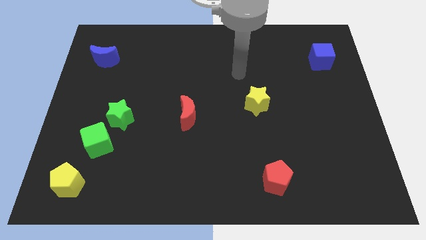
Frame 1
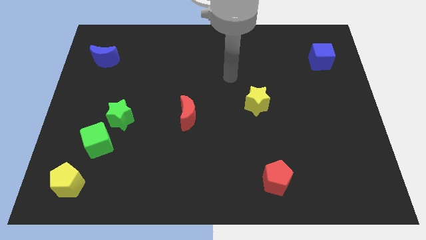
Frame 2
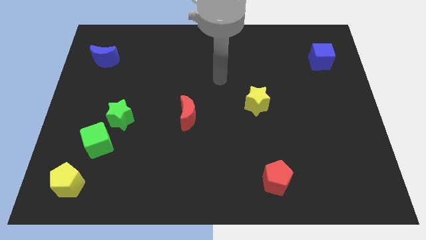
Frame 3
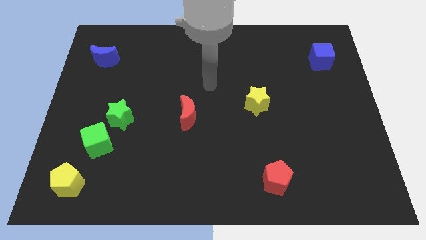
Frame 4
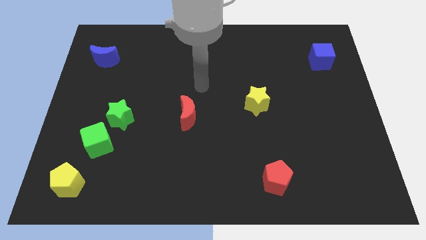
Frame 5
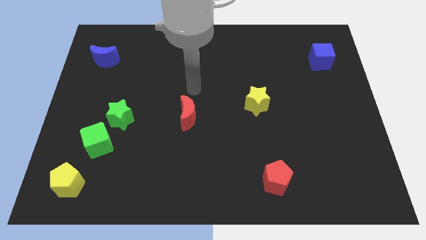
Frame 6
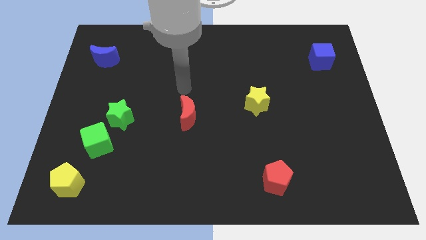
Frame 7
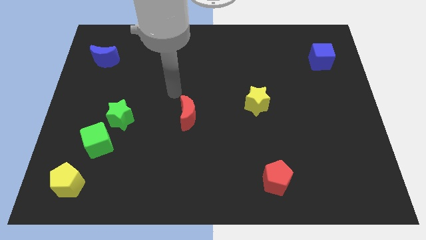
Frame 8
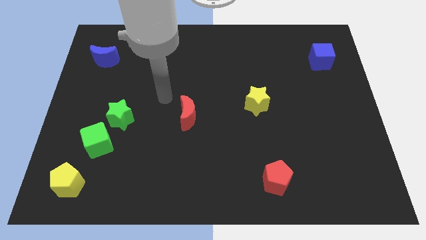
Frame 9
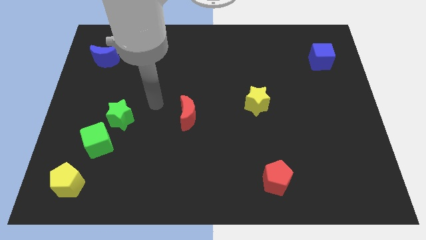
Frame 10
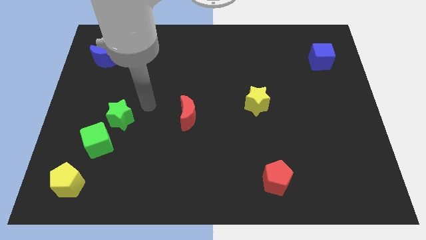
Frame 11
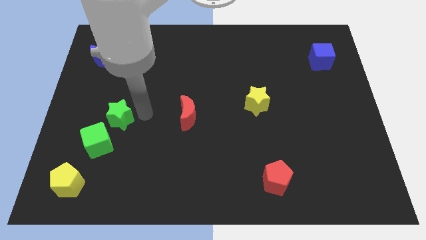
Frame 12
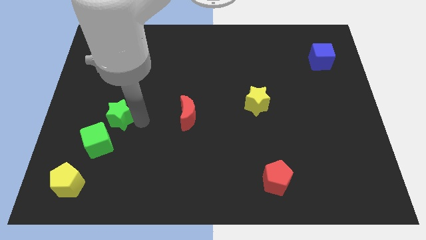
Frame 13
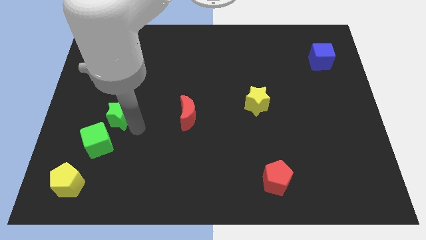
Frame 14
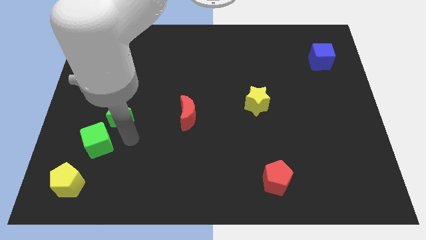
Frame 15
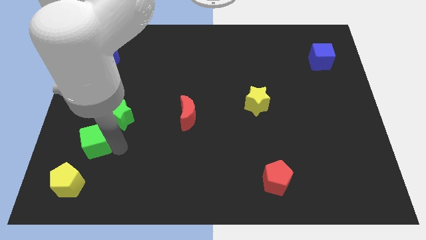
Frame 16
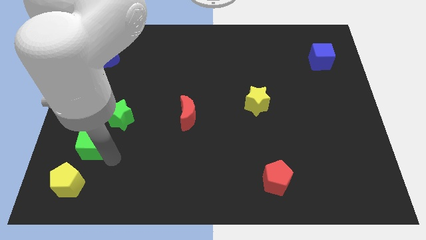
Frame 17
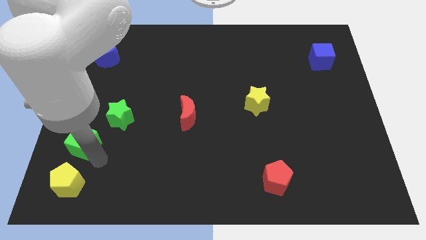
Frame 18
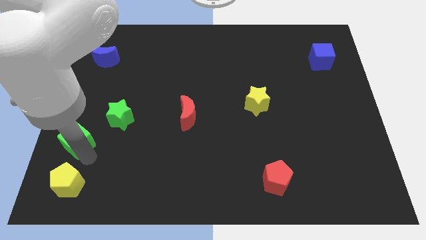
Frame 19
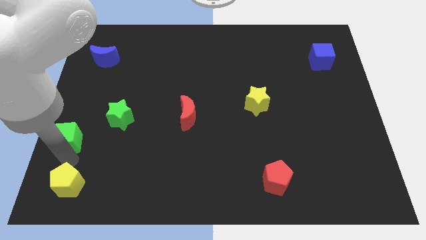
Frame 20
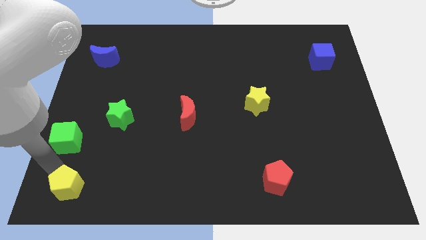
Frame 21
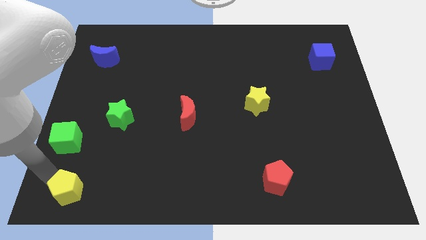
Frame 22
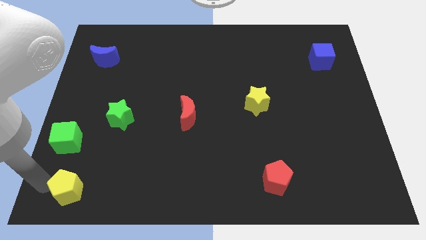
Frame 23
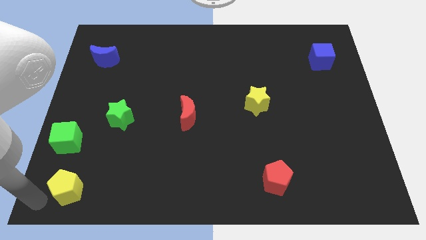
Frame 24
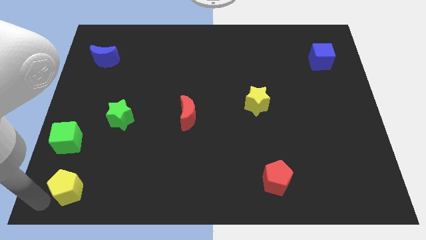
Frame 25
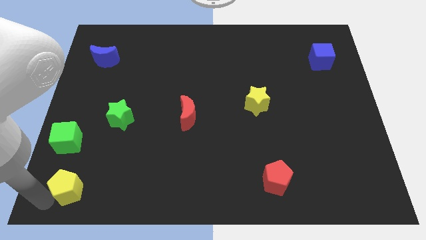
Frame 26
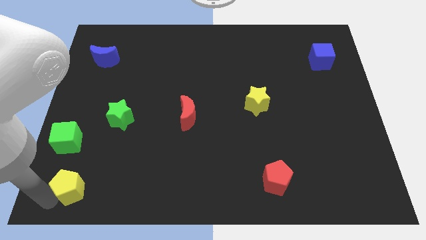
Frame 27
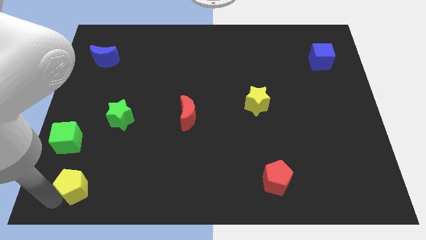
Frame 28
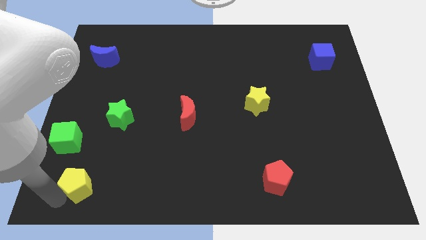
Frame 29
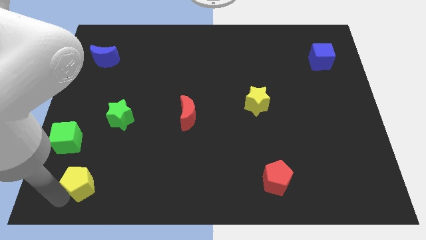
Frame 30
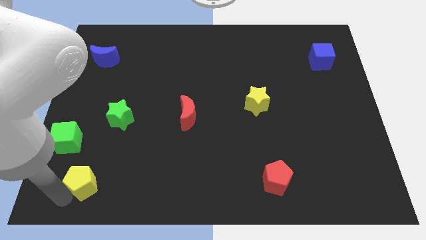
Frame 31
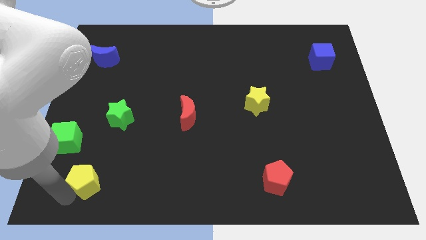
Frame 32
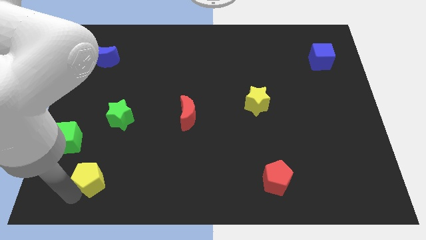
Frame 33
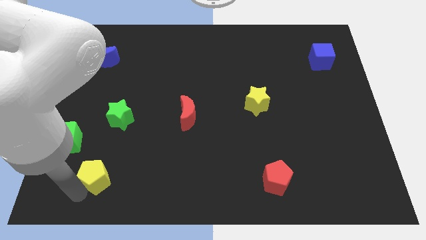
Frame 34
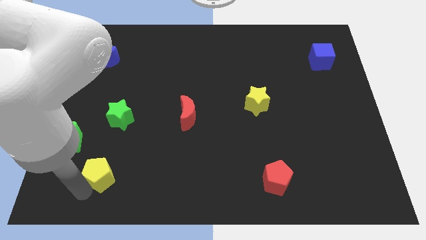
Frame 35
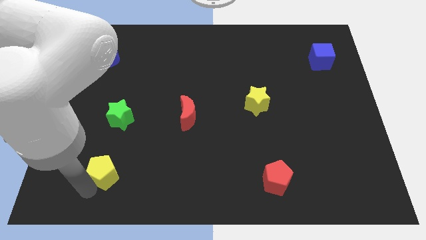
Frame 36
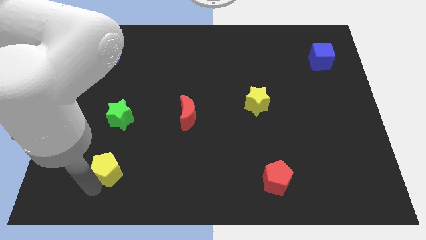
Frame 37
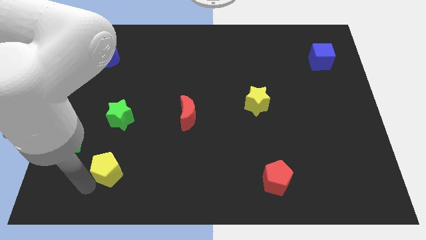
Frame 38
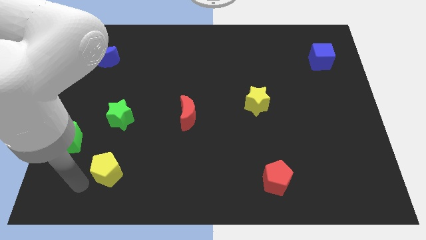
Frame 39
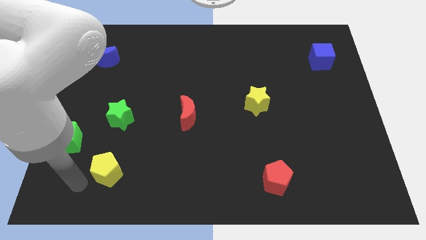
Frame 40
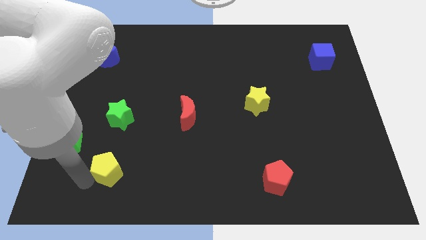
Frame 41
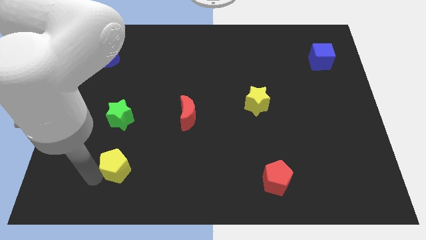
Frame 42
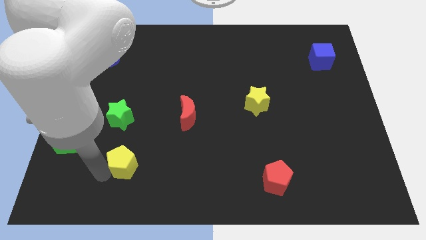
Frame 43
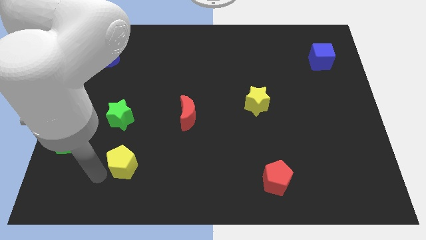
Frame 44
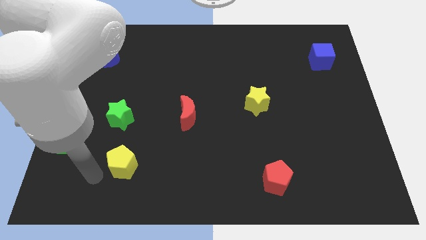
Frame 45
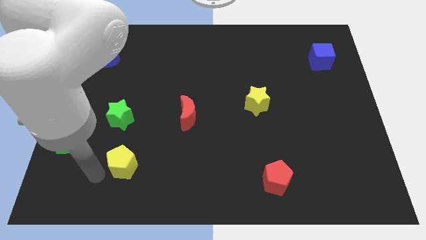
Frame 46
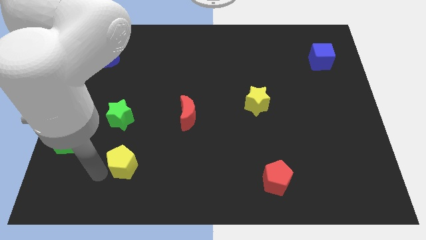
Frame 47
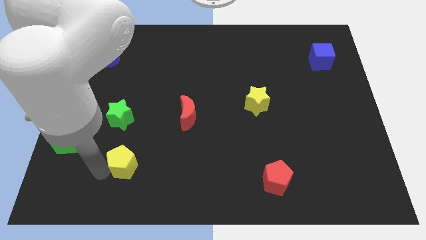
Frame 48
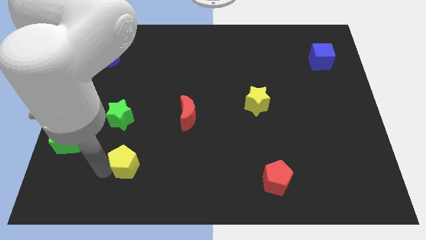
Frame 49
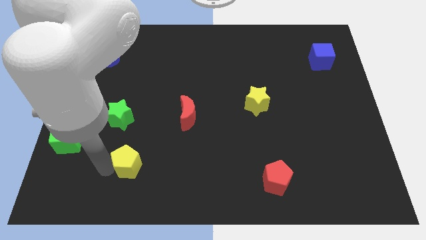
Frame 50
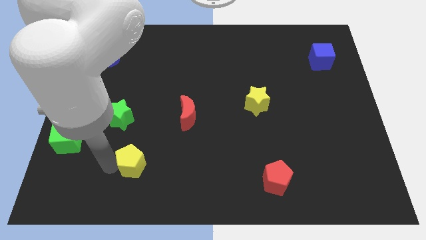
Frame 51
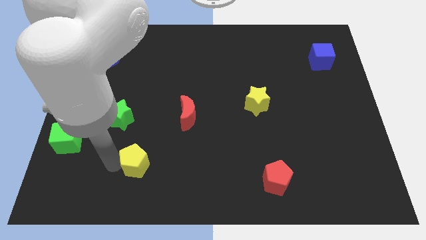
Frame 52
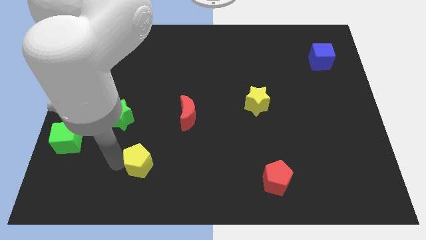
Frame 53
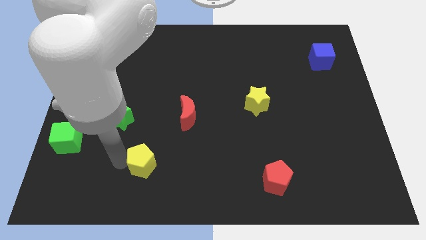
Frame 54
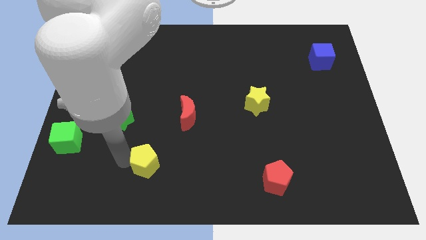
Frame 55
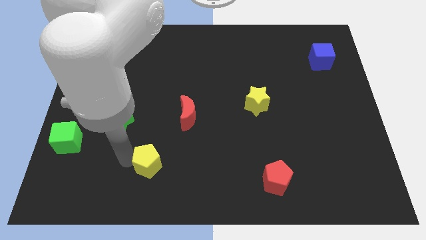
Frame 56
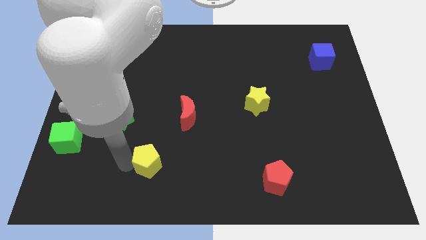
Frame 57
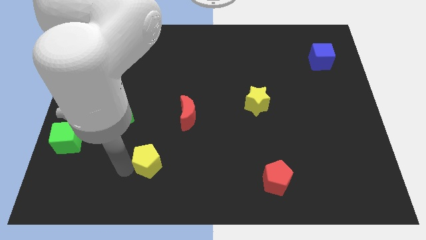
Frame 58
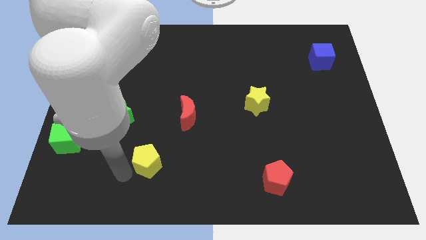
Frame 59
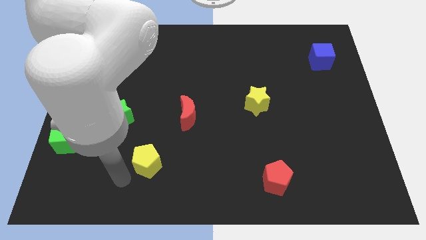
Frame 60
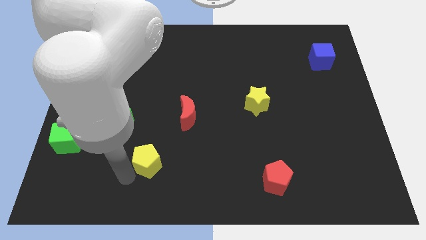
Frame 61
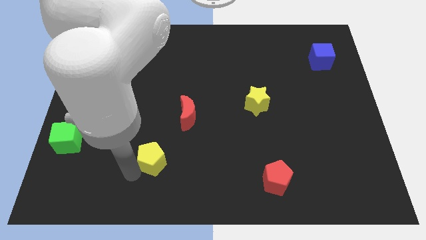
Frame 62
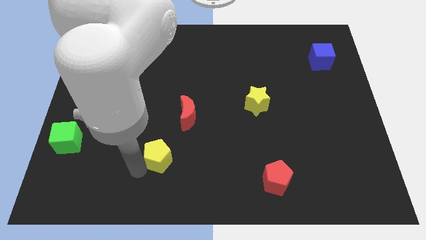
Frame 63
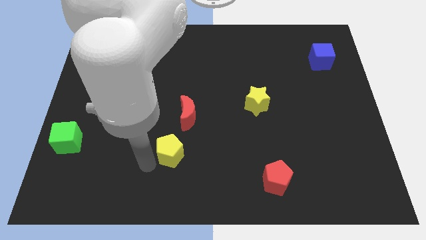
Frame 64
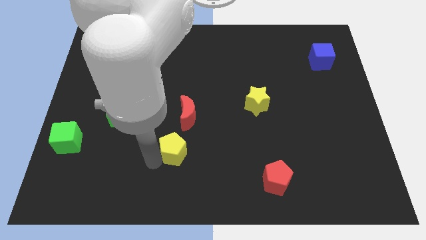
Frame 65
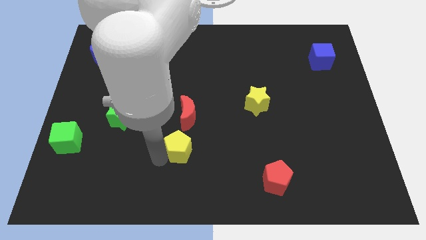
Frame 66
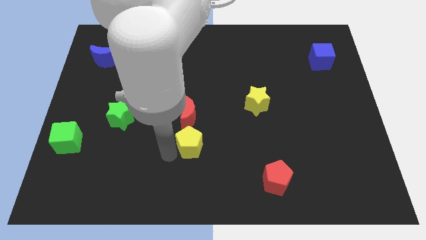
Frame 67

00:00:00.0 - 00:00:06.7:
push the yellow pentagon to the bottom right side of the red moon

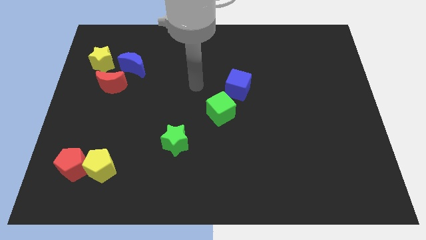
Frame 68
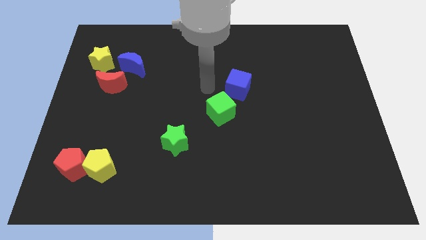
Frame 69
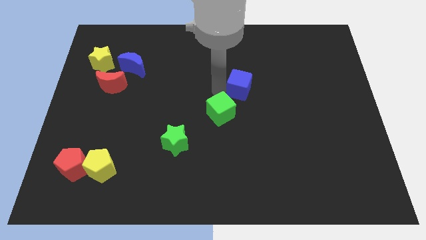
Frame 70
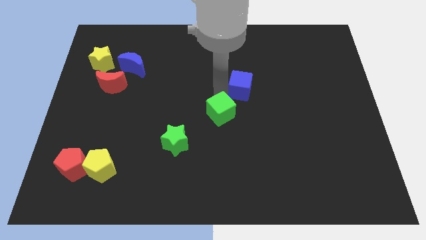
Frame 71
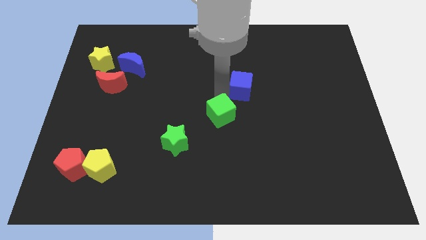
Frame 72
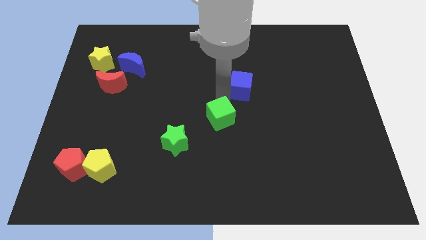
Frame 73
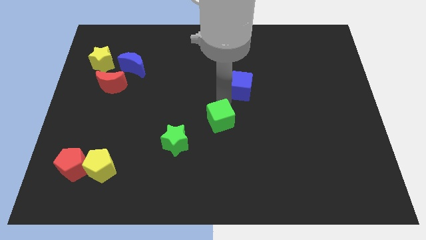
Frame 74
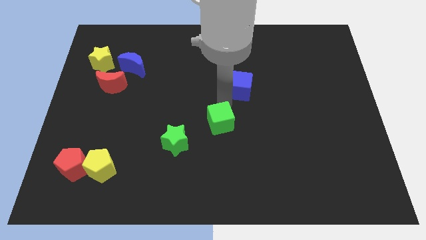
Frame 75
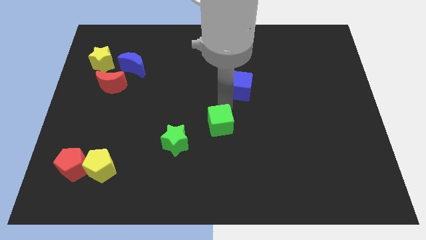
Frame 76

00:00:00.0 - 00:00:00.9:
slide the green cube right of the green star
